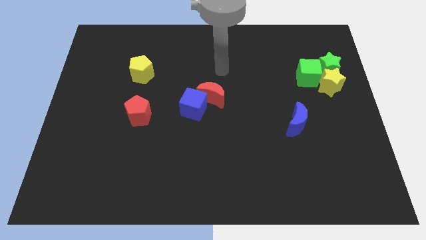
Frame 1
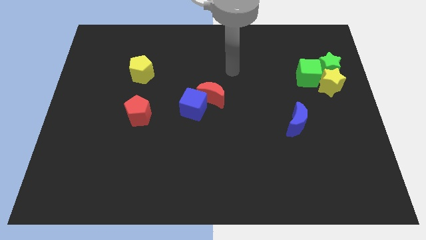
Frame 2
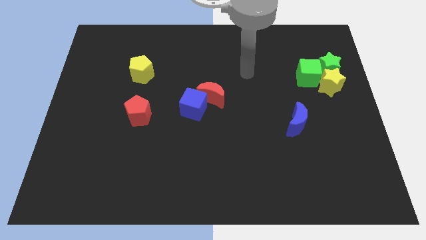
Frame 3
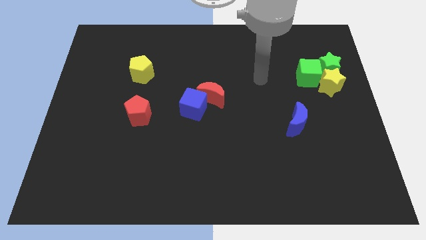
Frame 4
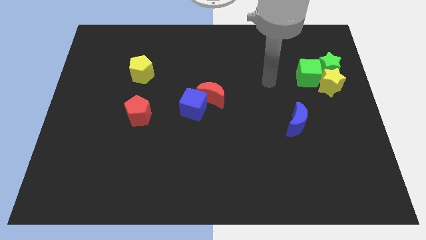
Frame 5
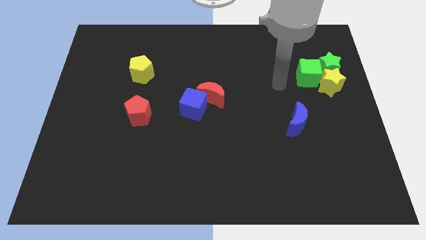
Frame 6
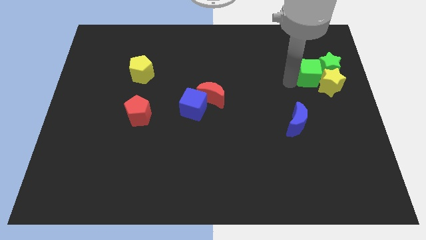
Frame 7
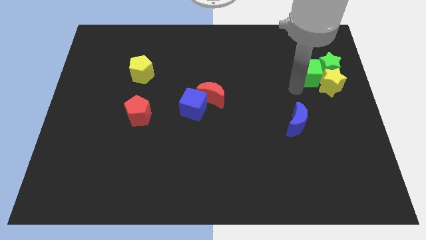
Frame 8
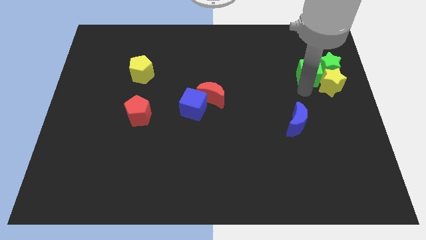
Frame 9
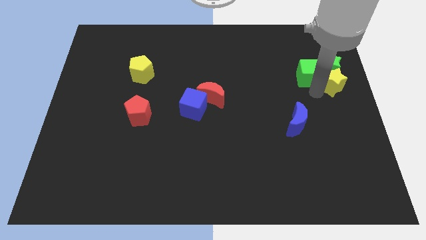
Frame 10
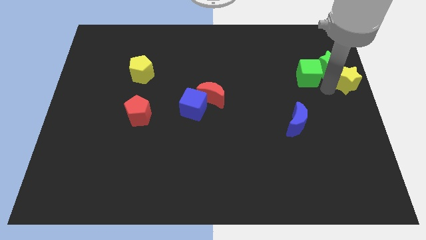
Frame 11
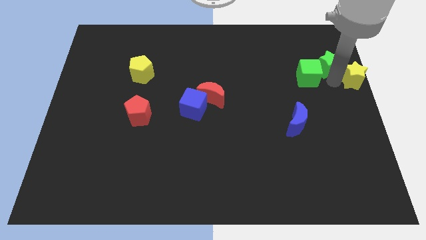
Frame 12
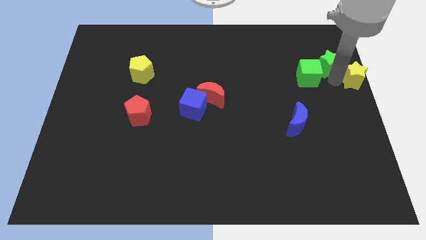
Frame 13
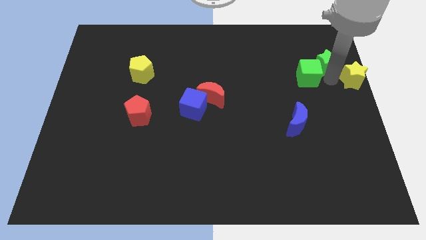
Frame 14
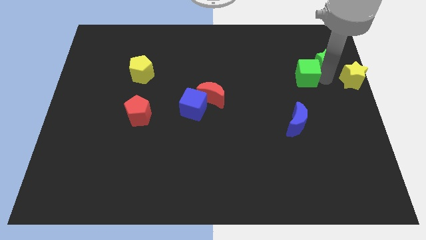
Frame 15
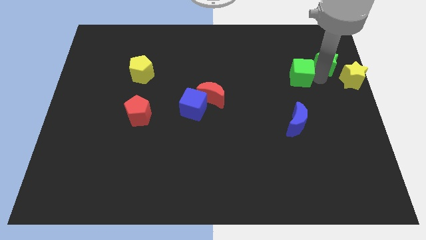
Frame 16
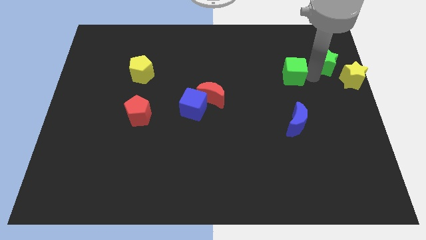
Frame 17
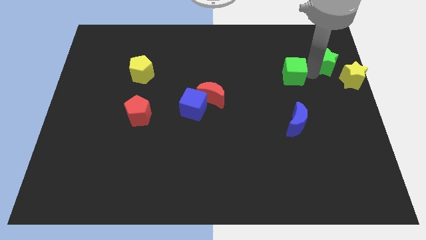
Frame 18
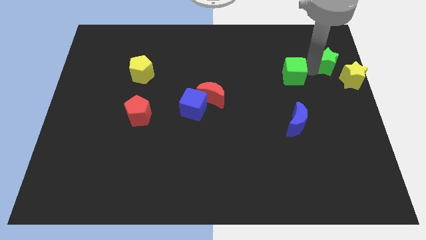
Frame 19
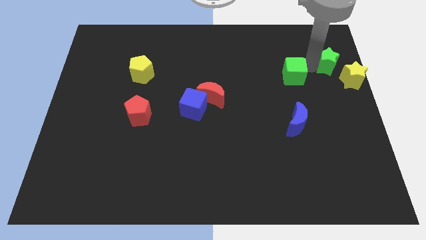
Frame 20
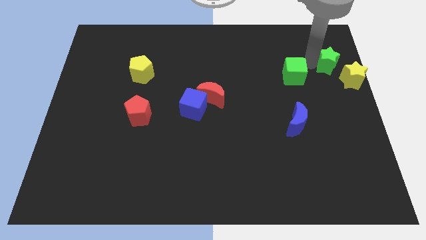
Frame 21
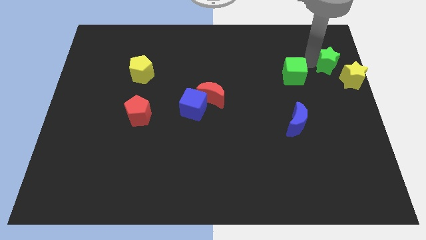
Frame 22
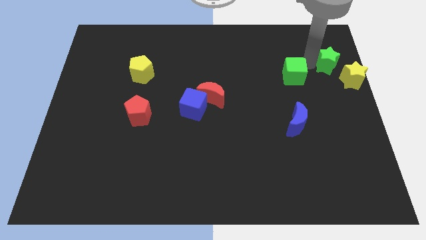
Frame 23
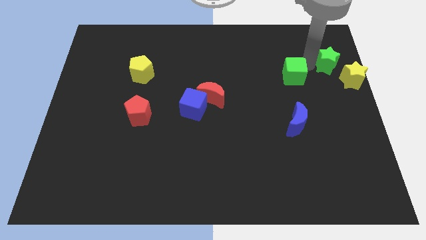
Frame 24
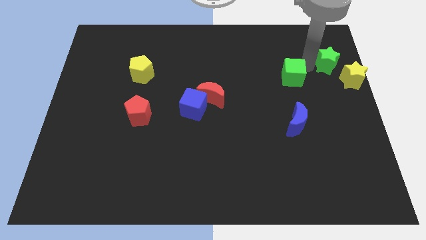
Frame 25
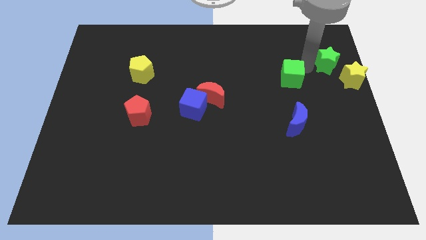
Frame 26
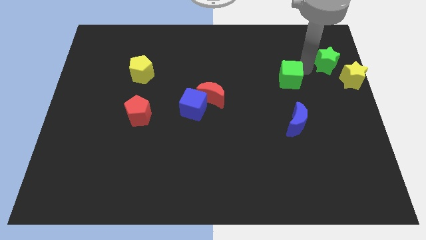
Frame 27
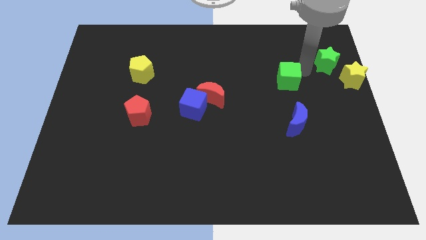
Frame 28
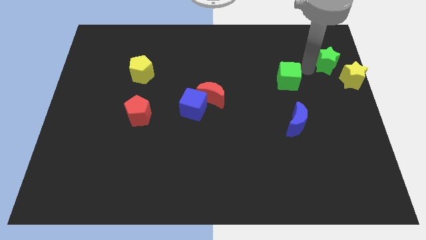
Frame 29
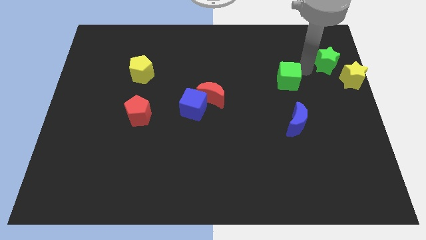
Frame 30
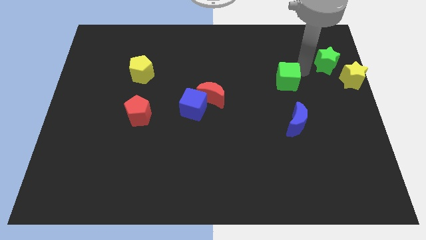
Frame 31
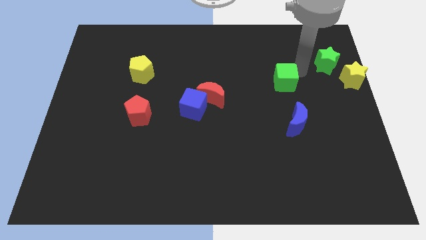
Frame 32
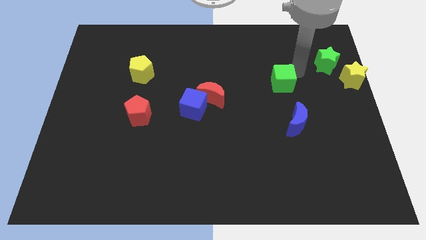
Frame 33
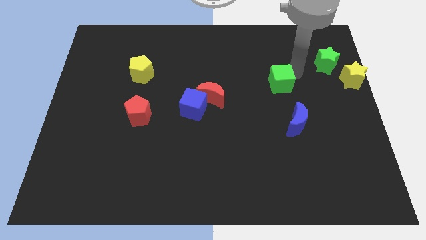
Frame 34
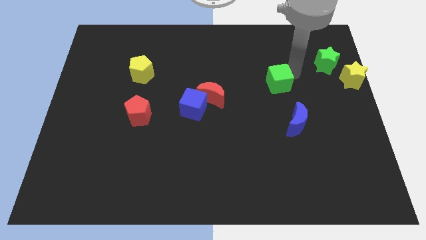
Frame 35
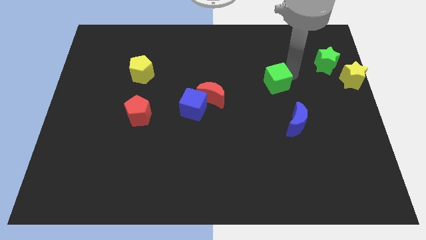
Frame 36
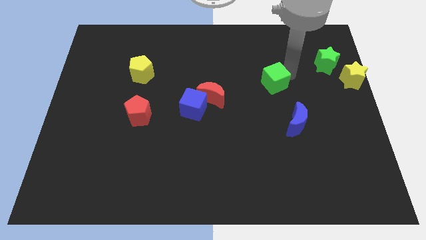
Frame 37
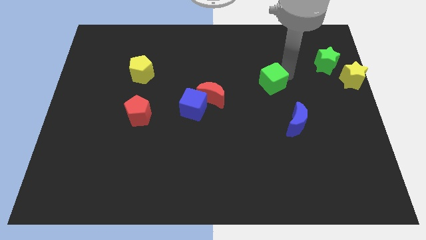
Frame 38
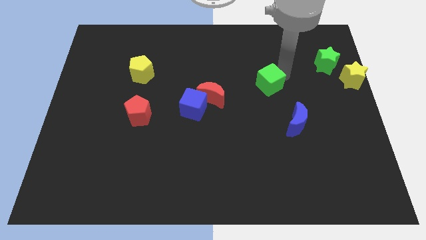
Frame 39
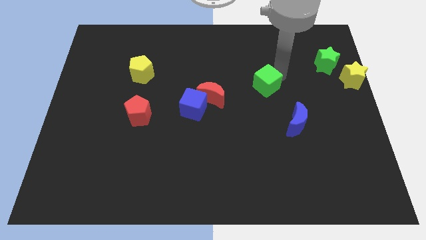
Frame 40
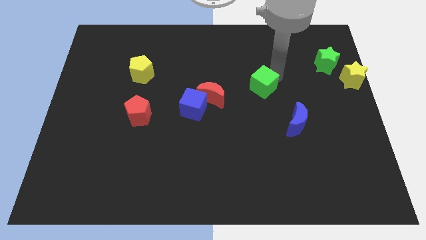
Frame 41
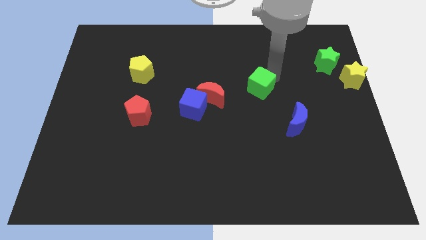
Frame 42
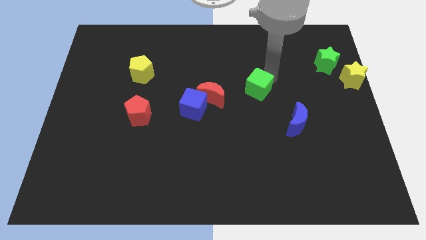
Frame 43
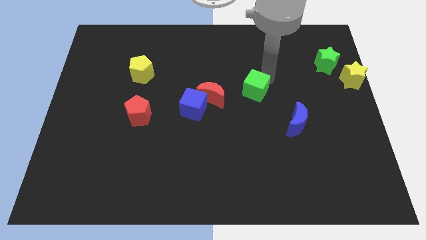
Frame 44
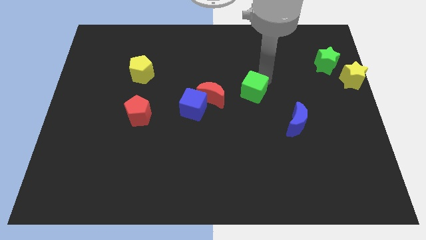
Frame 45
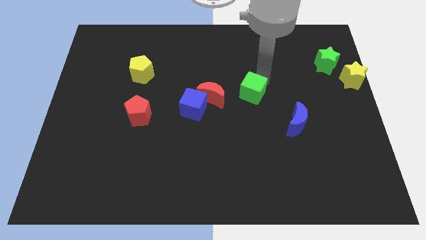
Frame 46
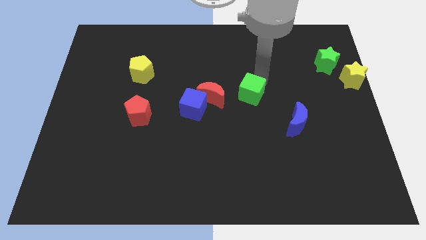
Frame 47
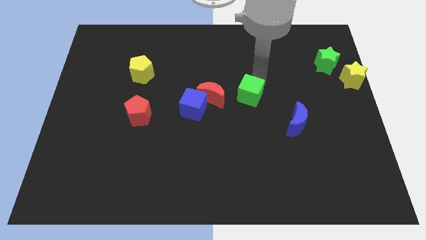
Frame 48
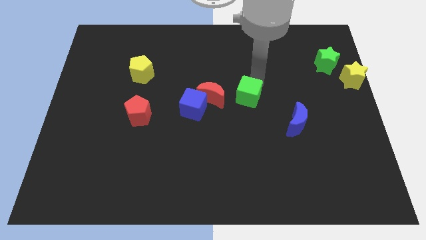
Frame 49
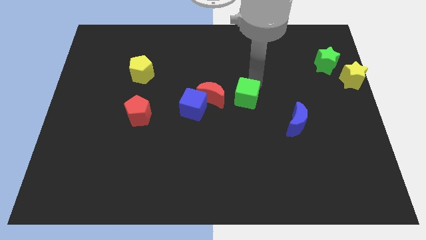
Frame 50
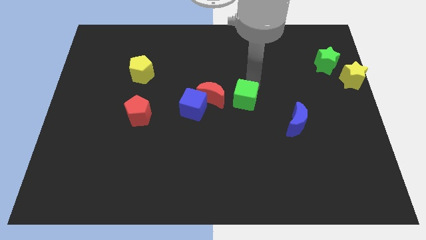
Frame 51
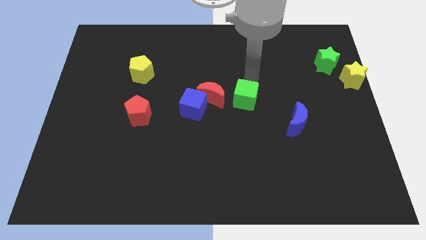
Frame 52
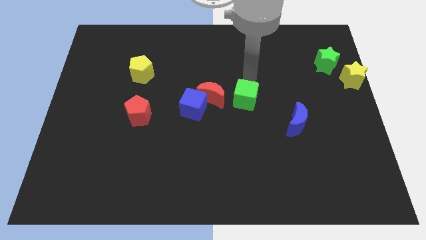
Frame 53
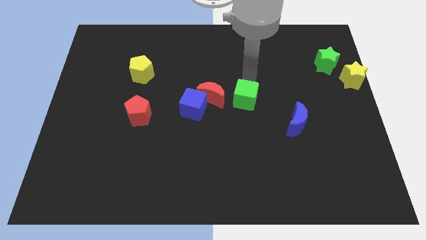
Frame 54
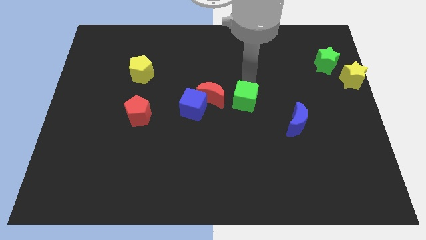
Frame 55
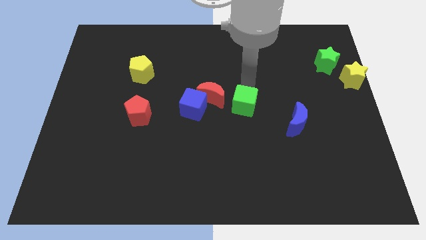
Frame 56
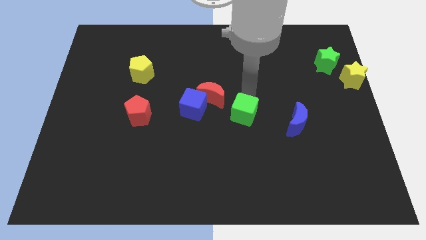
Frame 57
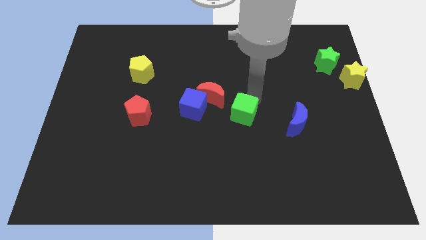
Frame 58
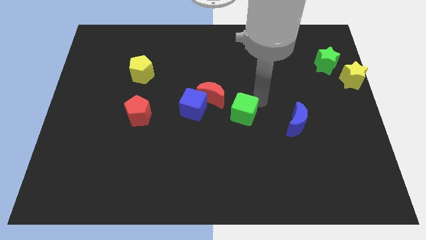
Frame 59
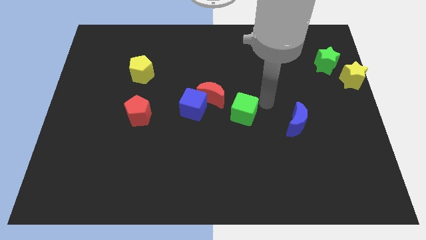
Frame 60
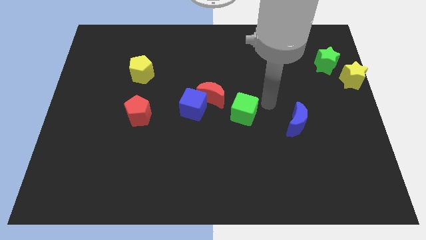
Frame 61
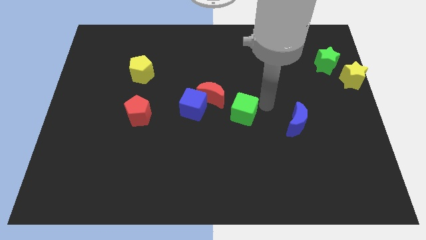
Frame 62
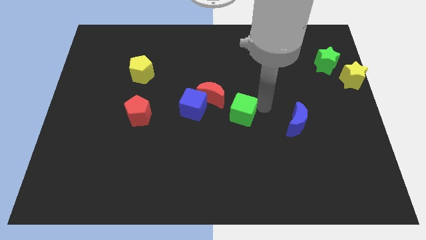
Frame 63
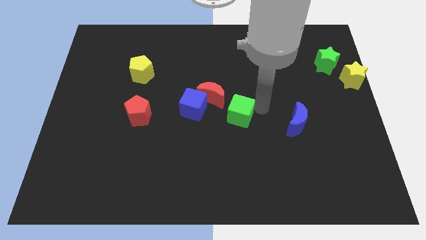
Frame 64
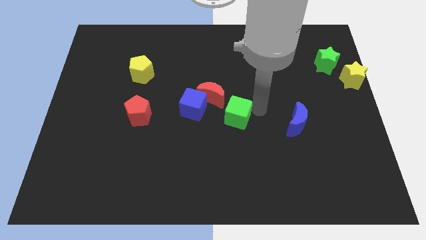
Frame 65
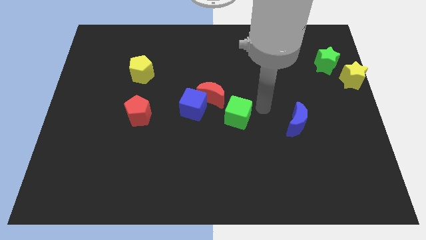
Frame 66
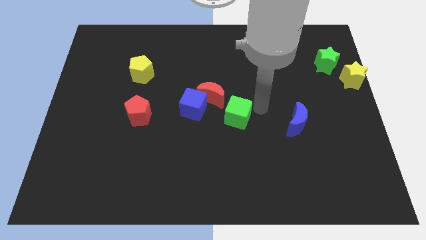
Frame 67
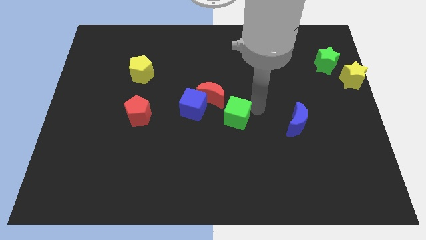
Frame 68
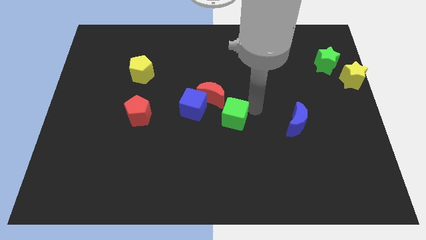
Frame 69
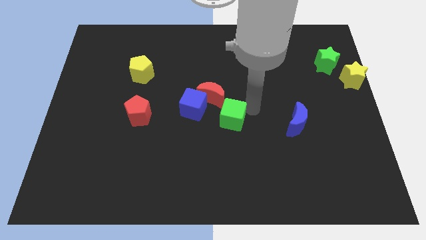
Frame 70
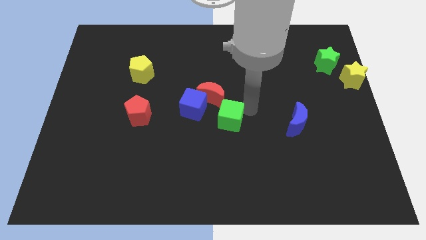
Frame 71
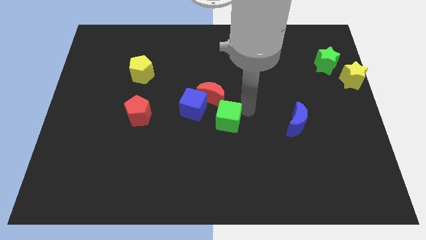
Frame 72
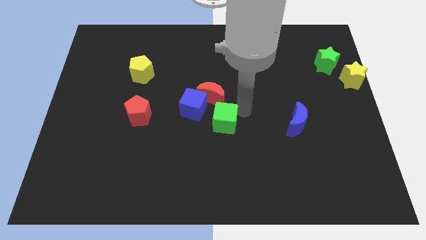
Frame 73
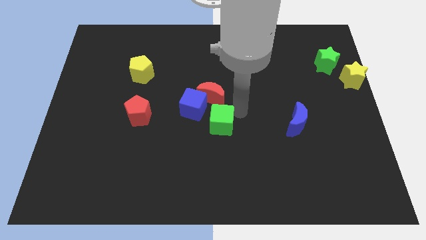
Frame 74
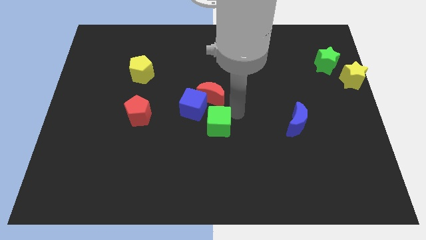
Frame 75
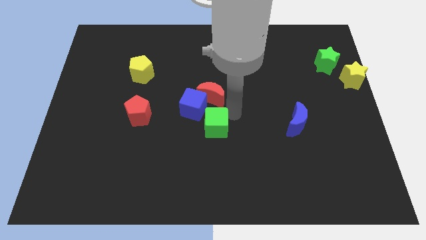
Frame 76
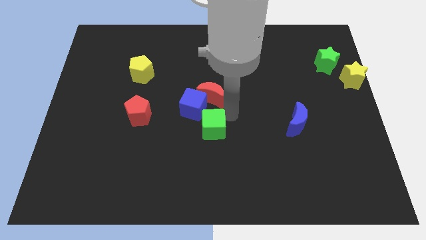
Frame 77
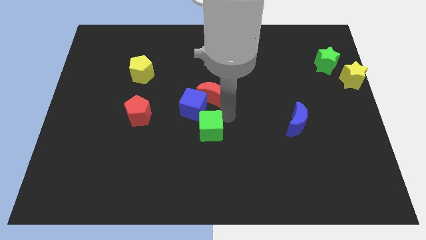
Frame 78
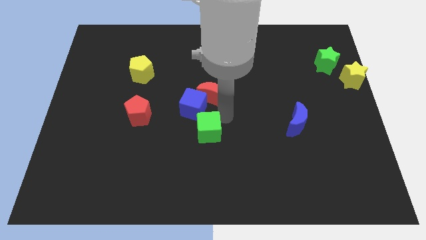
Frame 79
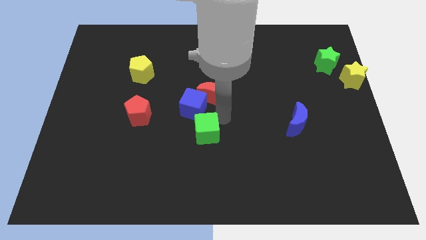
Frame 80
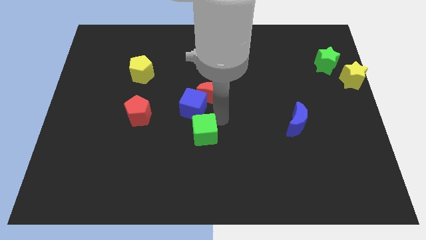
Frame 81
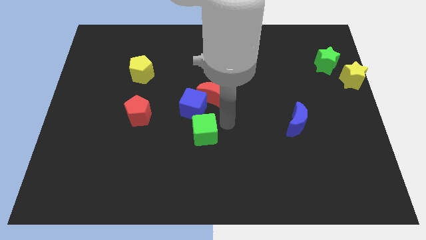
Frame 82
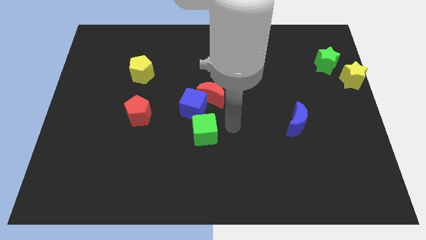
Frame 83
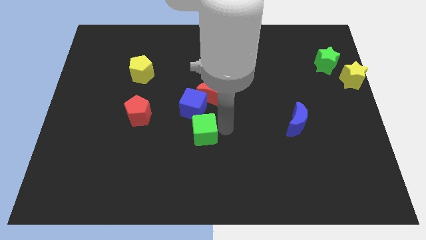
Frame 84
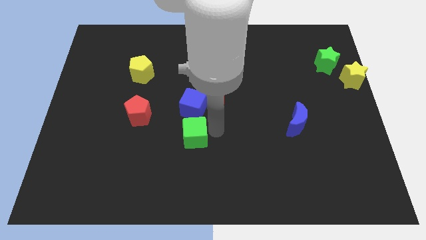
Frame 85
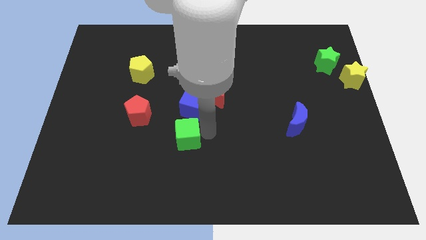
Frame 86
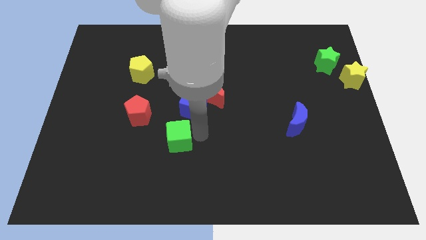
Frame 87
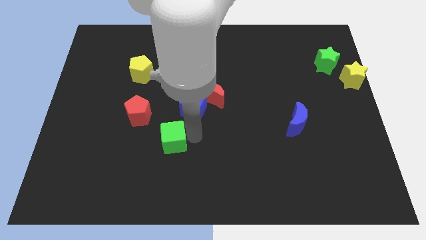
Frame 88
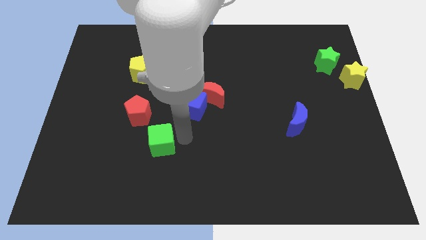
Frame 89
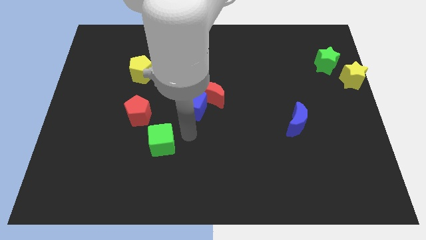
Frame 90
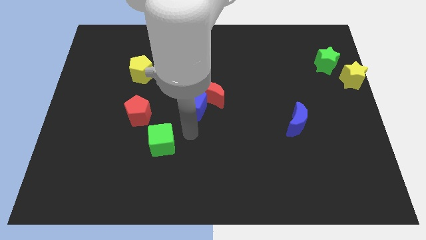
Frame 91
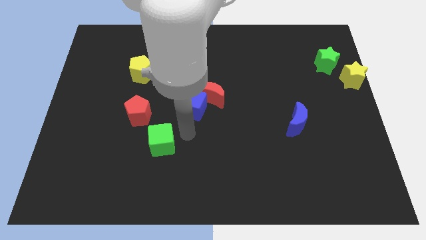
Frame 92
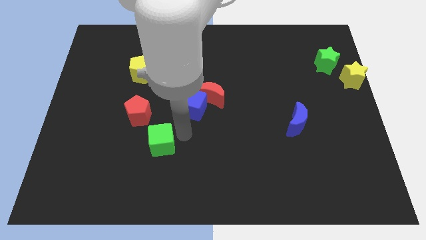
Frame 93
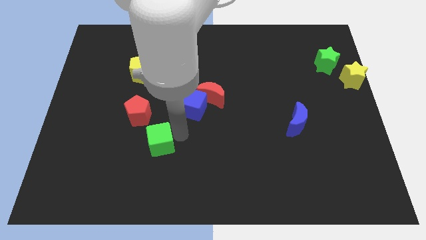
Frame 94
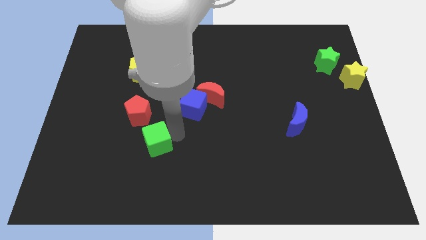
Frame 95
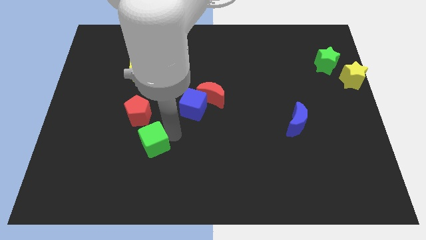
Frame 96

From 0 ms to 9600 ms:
move the green cube to the bottom side of the red pentagon
